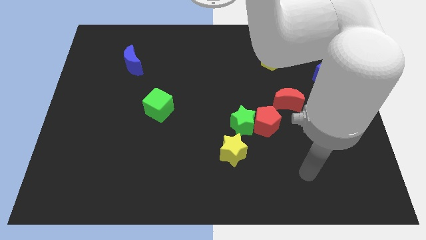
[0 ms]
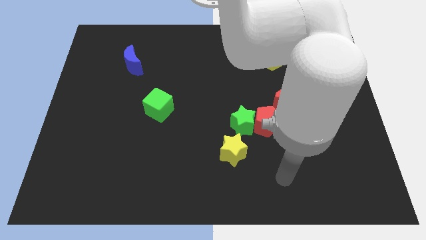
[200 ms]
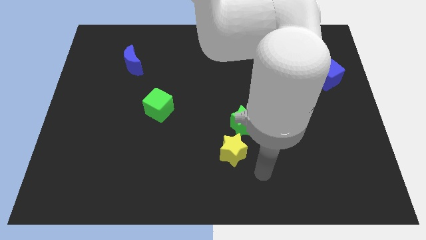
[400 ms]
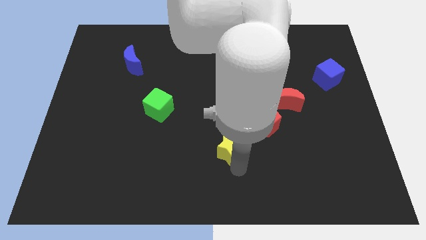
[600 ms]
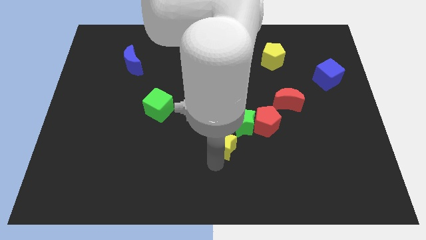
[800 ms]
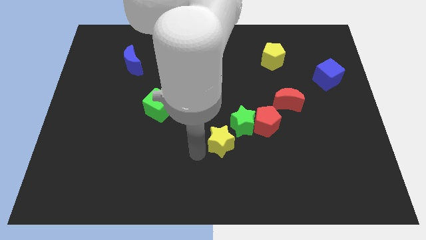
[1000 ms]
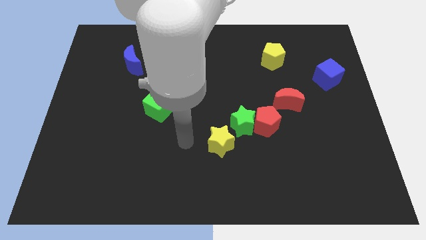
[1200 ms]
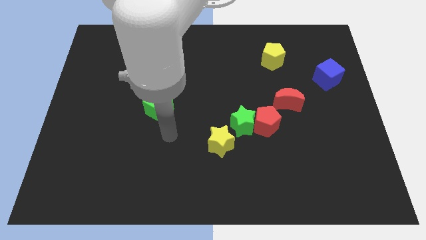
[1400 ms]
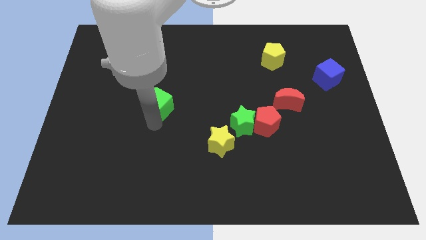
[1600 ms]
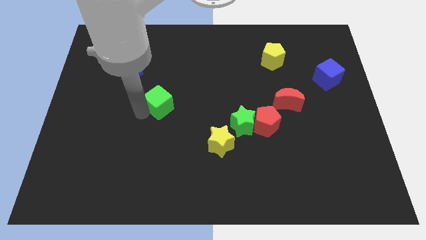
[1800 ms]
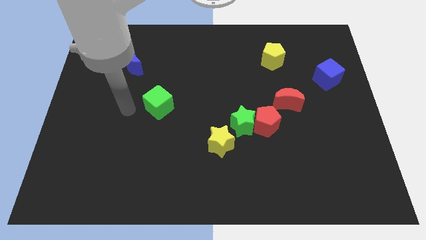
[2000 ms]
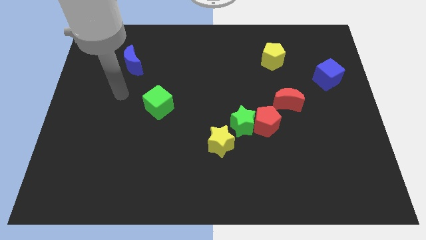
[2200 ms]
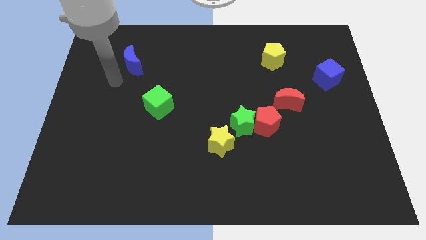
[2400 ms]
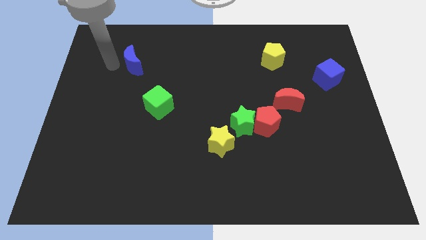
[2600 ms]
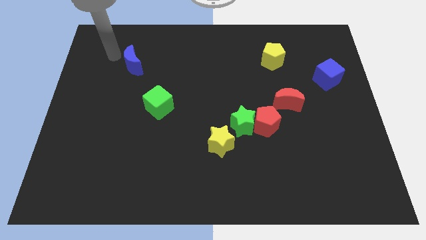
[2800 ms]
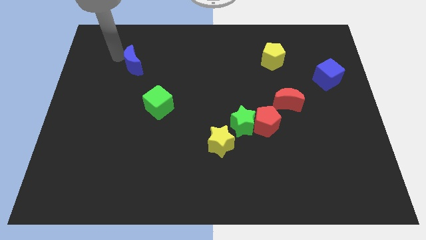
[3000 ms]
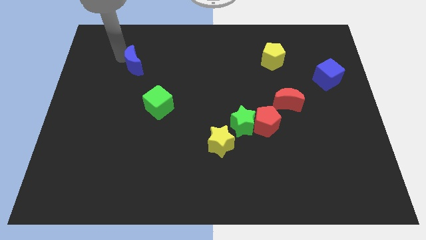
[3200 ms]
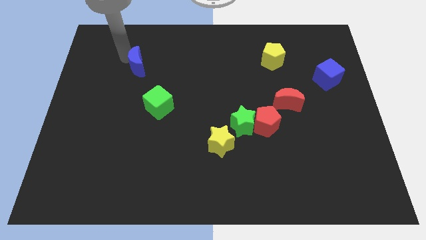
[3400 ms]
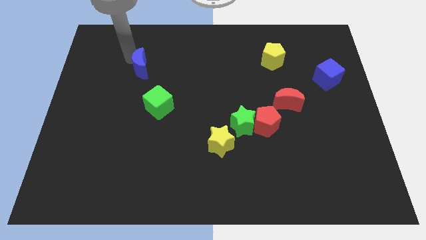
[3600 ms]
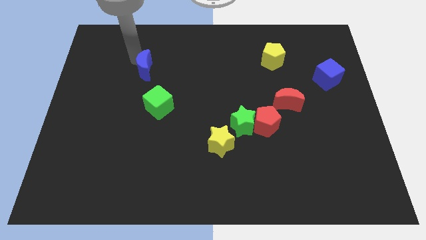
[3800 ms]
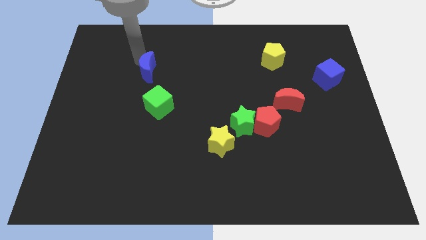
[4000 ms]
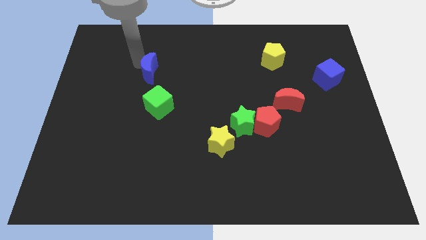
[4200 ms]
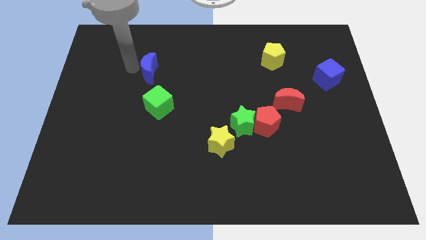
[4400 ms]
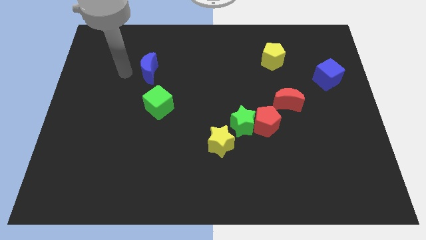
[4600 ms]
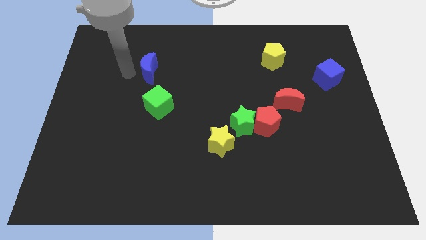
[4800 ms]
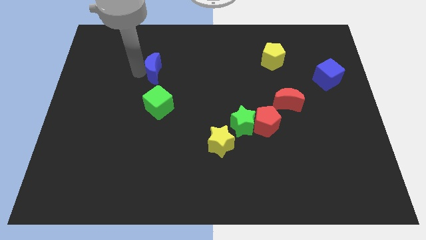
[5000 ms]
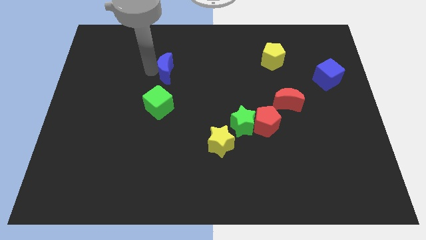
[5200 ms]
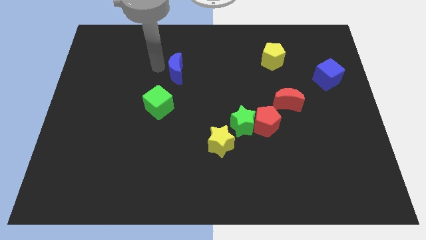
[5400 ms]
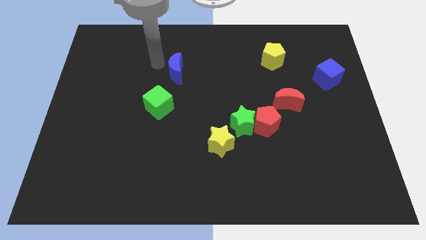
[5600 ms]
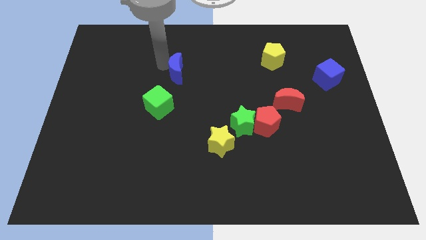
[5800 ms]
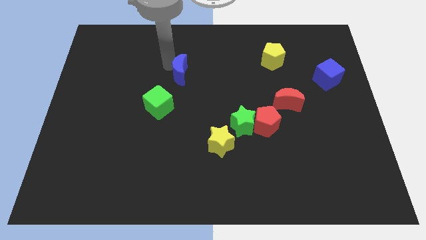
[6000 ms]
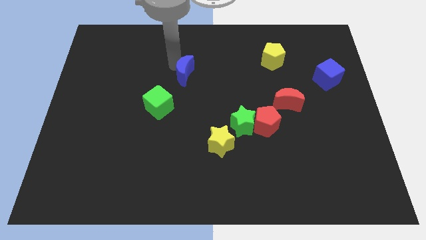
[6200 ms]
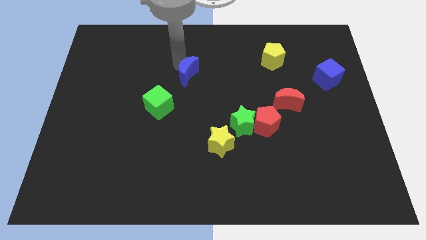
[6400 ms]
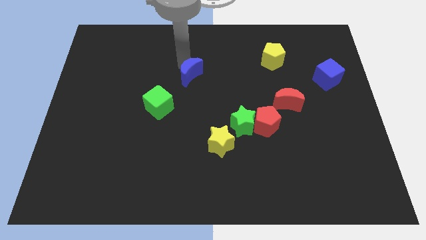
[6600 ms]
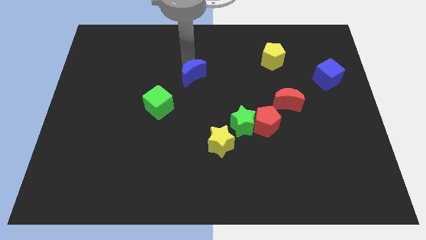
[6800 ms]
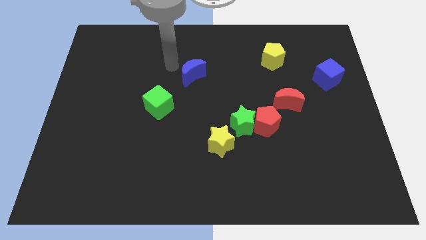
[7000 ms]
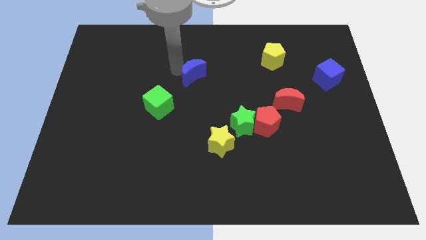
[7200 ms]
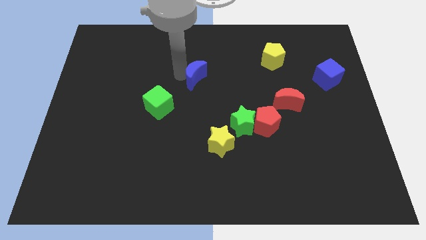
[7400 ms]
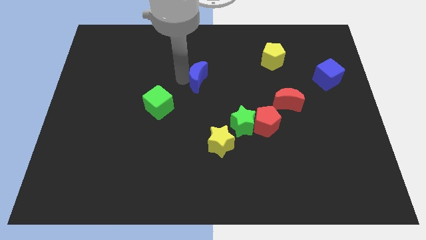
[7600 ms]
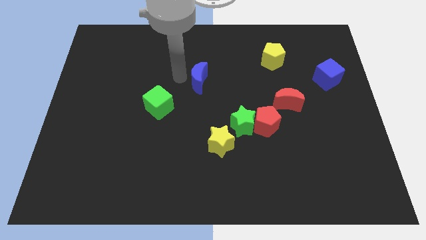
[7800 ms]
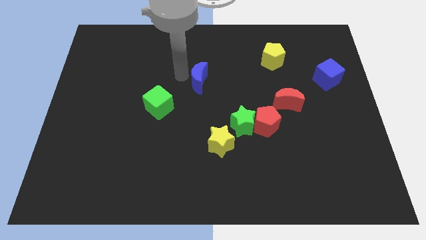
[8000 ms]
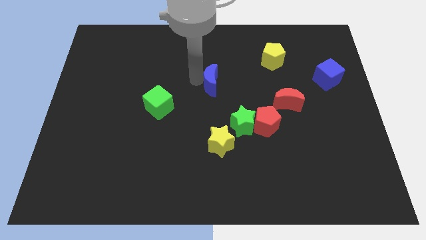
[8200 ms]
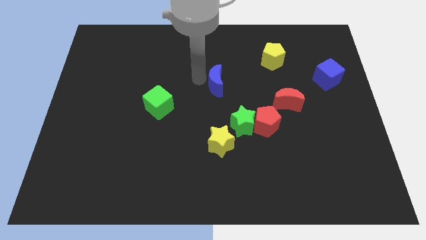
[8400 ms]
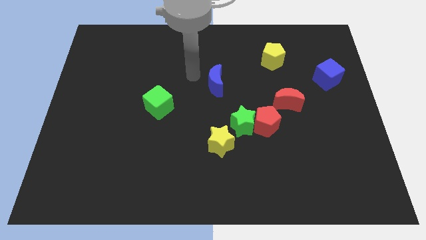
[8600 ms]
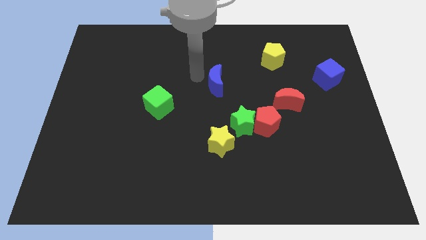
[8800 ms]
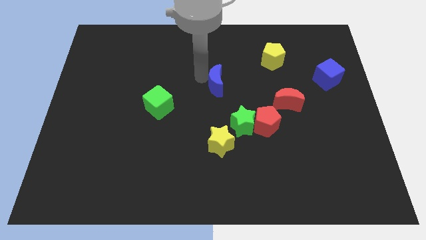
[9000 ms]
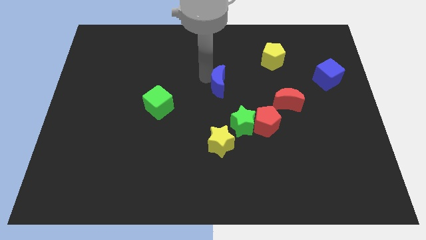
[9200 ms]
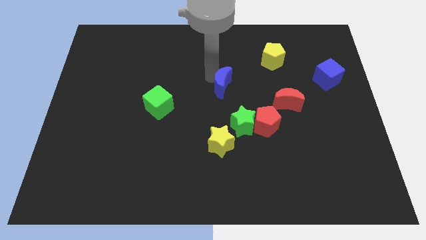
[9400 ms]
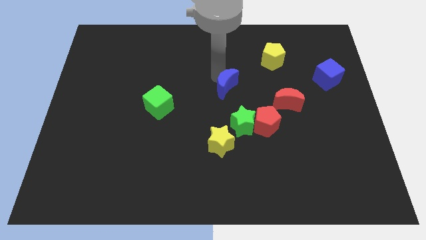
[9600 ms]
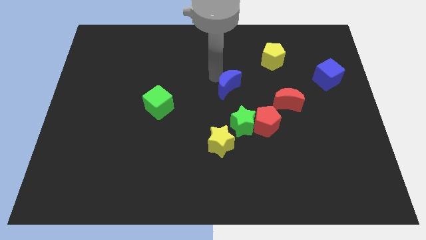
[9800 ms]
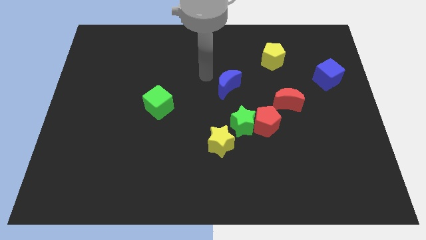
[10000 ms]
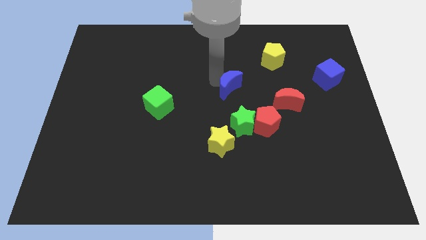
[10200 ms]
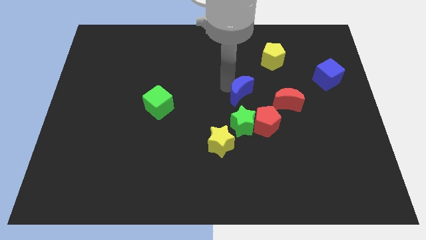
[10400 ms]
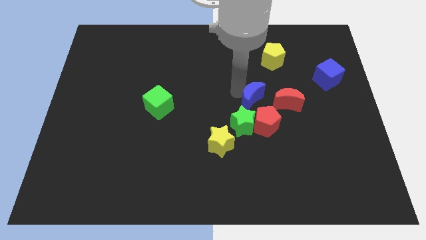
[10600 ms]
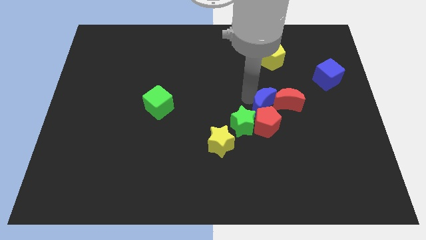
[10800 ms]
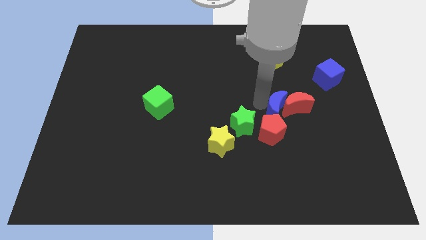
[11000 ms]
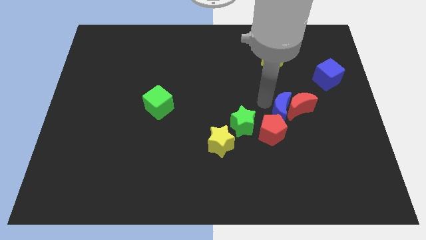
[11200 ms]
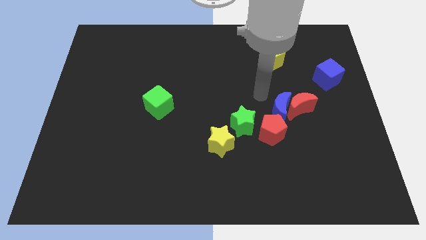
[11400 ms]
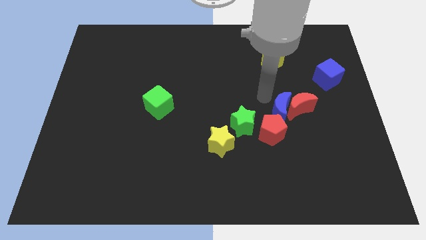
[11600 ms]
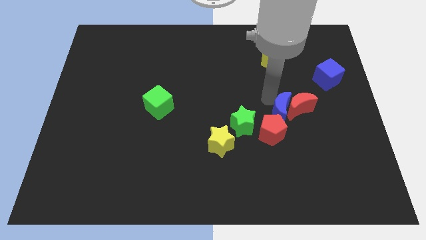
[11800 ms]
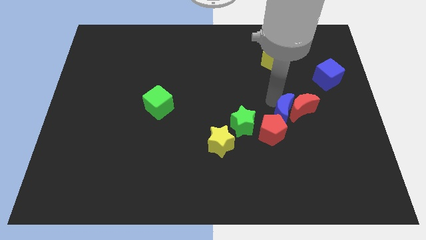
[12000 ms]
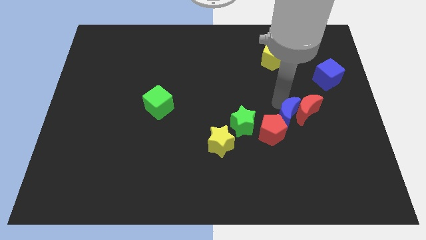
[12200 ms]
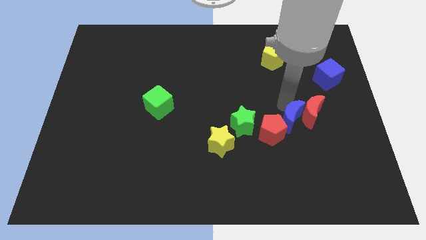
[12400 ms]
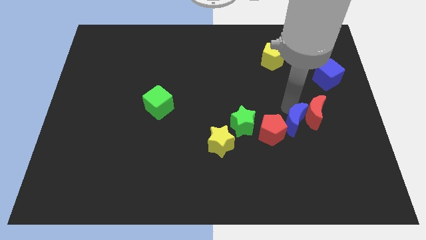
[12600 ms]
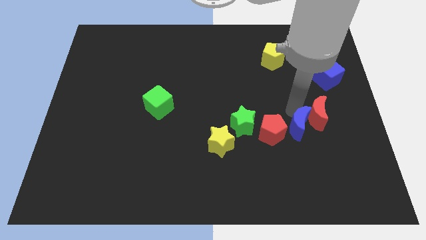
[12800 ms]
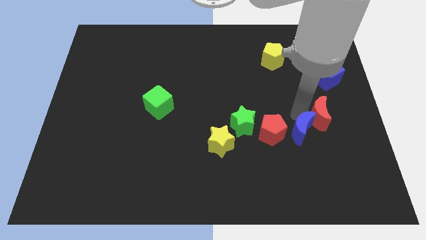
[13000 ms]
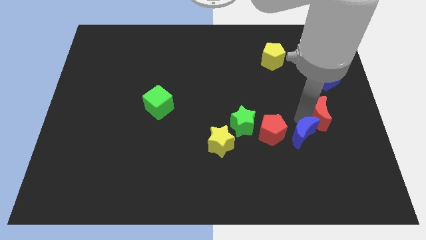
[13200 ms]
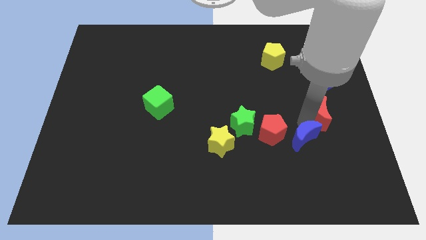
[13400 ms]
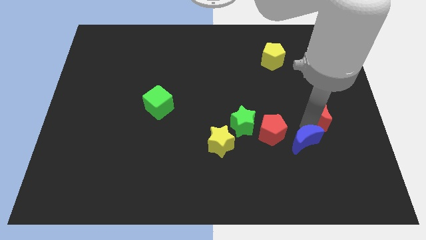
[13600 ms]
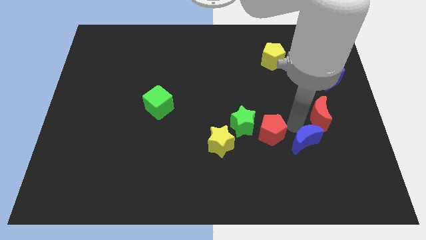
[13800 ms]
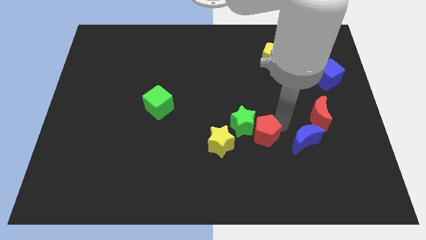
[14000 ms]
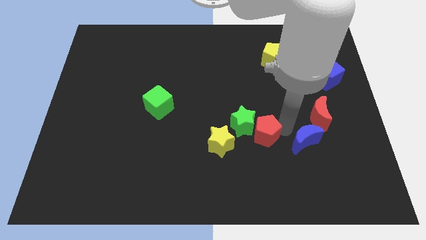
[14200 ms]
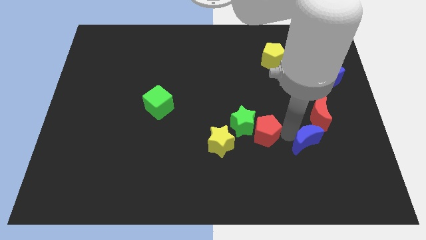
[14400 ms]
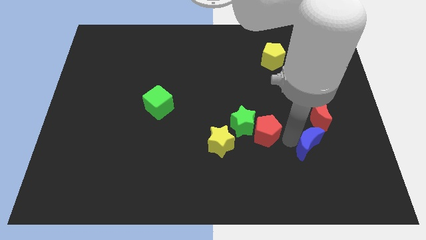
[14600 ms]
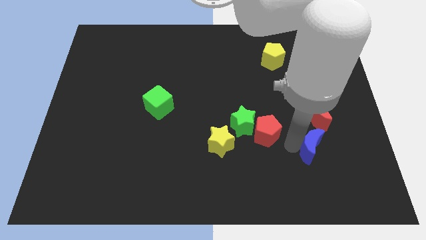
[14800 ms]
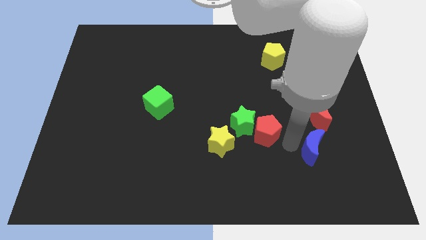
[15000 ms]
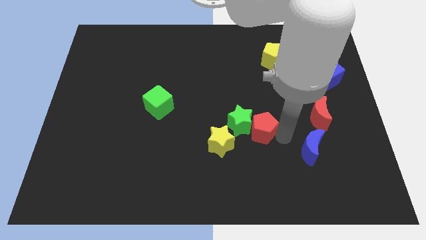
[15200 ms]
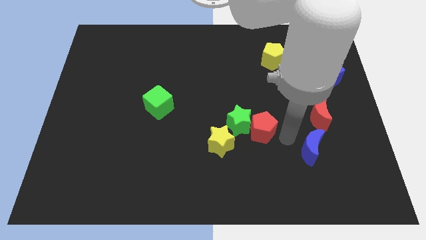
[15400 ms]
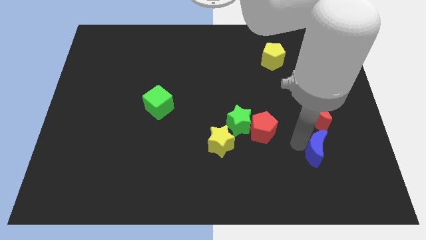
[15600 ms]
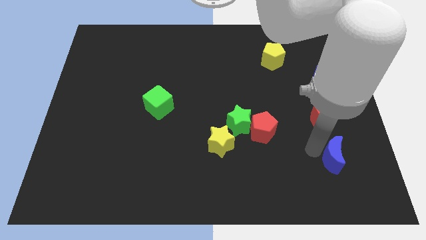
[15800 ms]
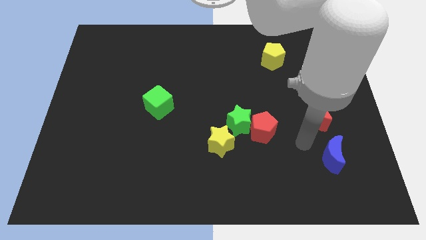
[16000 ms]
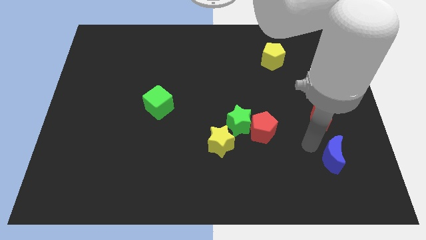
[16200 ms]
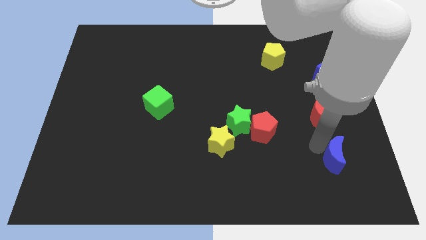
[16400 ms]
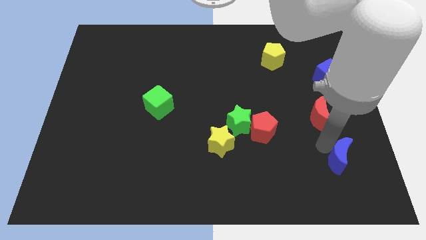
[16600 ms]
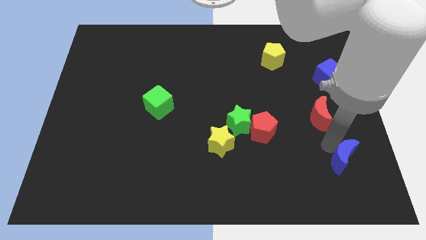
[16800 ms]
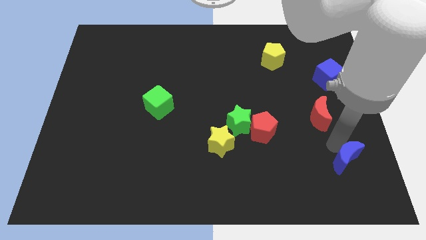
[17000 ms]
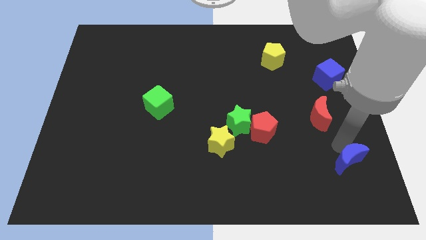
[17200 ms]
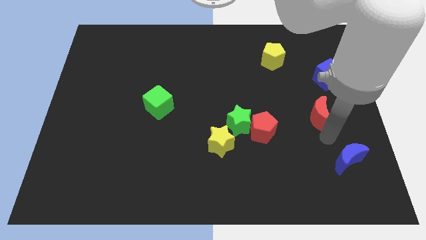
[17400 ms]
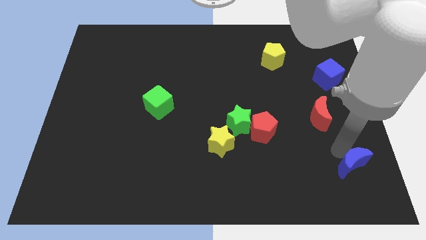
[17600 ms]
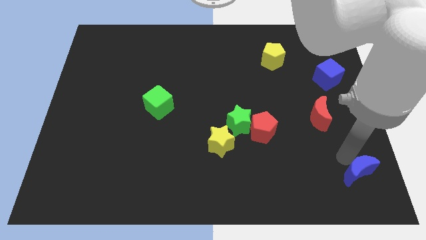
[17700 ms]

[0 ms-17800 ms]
put the blue moon to the bottom right corner
